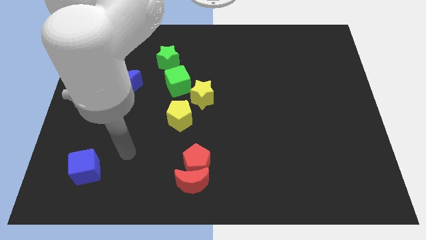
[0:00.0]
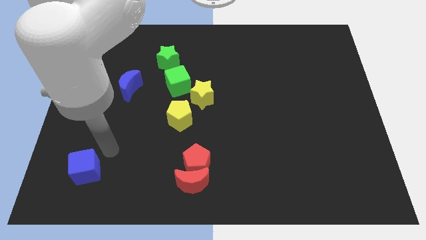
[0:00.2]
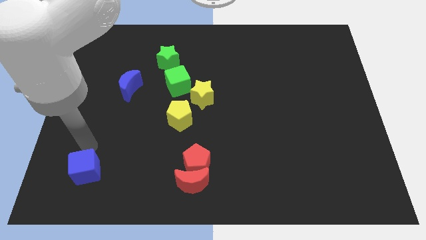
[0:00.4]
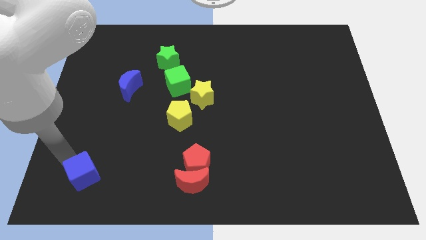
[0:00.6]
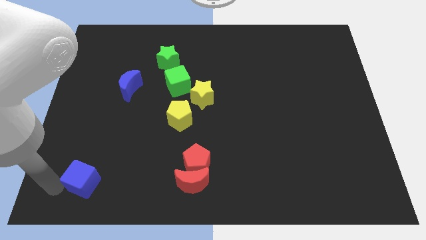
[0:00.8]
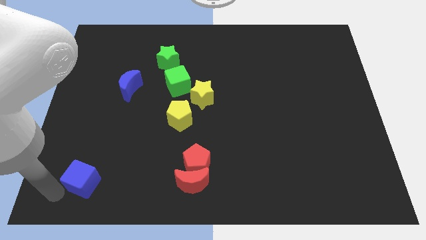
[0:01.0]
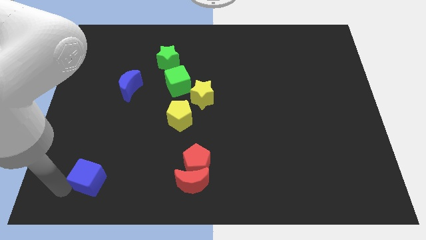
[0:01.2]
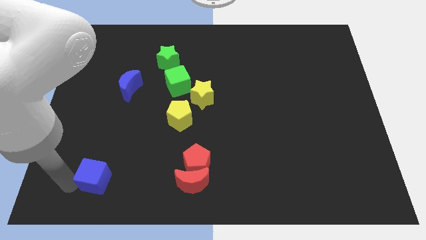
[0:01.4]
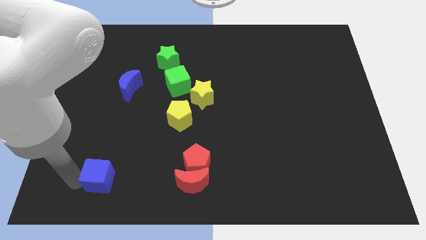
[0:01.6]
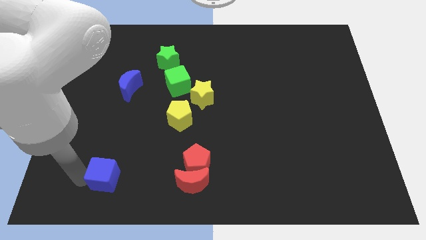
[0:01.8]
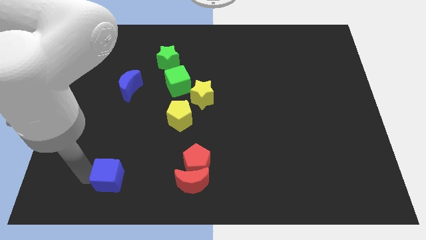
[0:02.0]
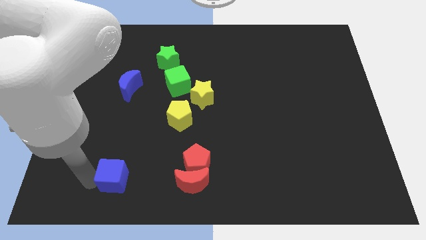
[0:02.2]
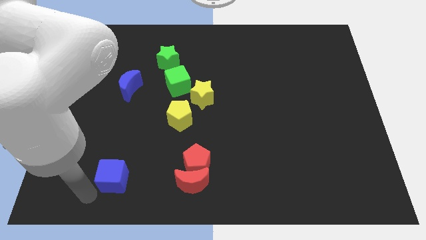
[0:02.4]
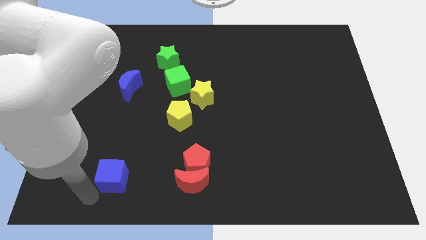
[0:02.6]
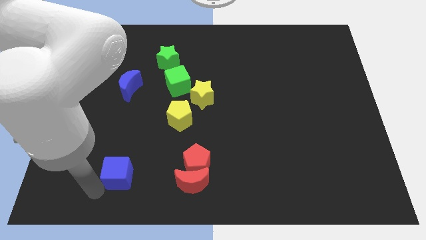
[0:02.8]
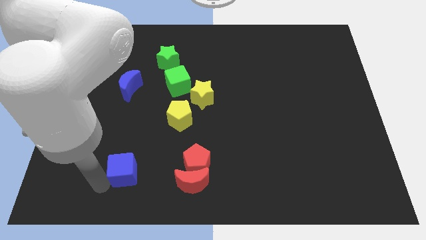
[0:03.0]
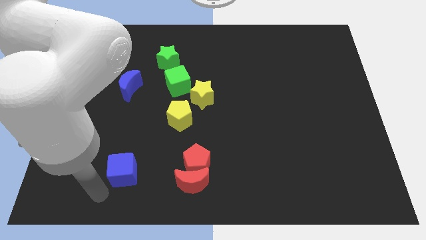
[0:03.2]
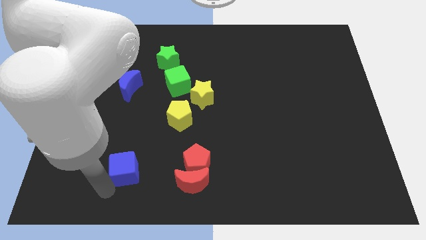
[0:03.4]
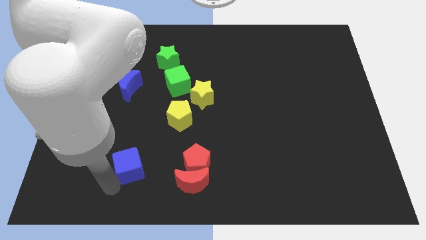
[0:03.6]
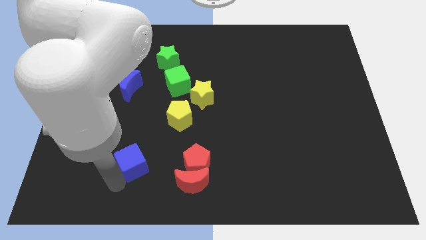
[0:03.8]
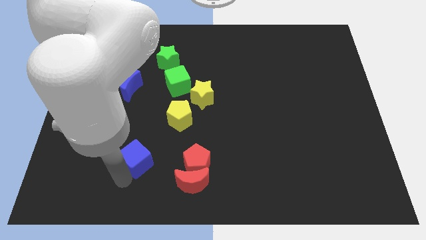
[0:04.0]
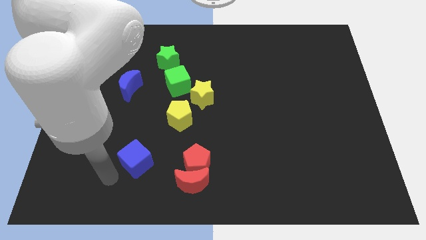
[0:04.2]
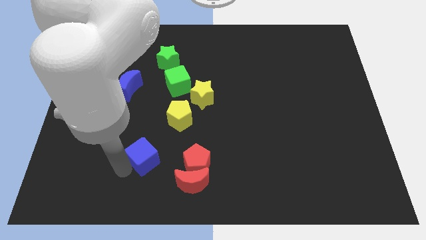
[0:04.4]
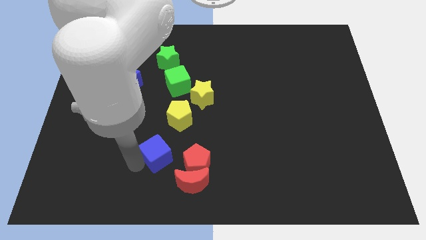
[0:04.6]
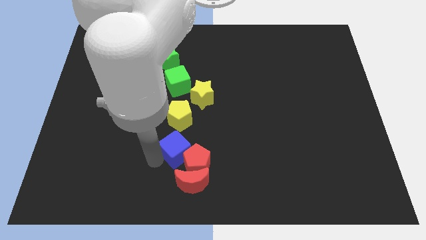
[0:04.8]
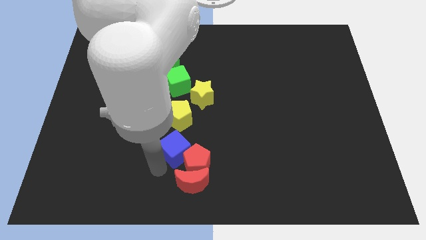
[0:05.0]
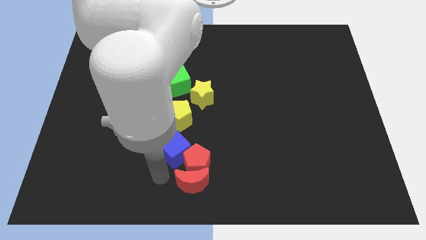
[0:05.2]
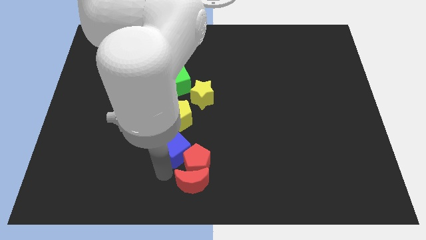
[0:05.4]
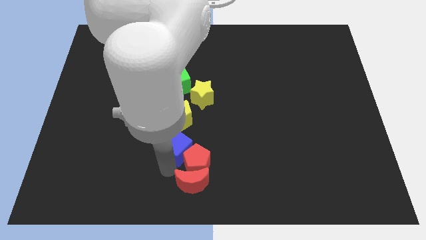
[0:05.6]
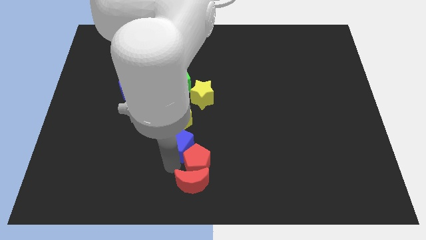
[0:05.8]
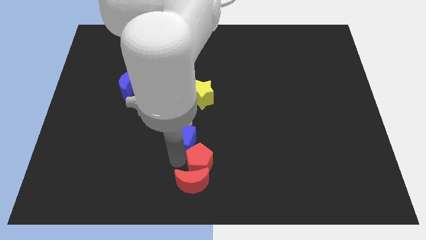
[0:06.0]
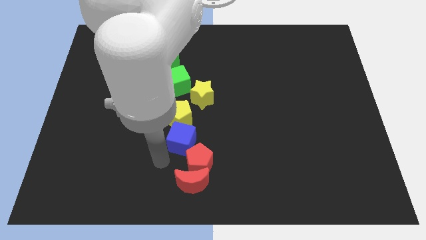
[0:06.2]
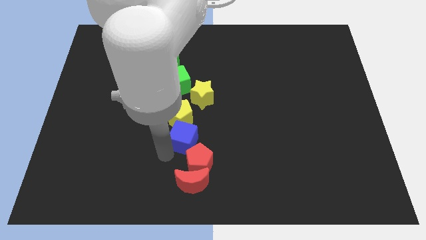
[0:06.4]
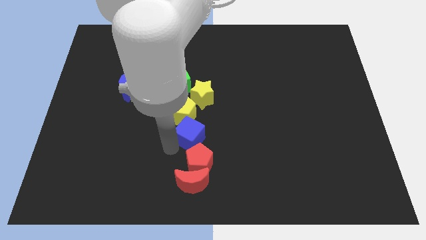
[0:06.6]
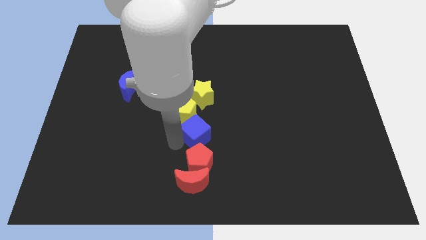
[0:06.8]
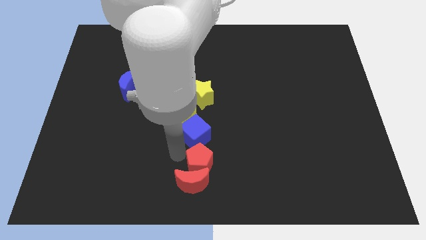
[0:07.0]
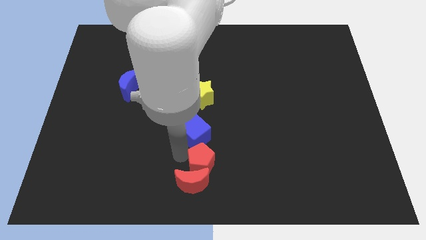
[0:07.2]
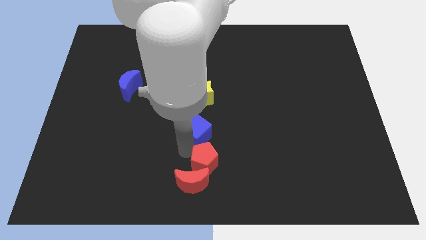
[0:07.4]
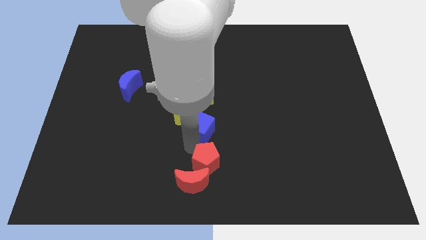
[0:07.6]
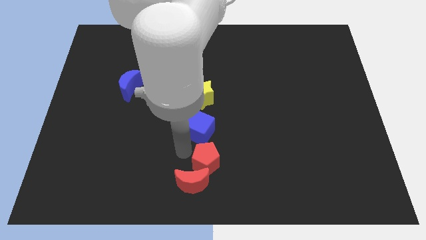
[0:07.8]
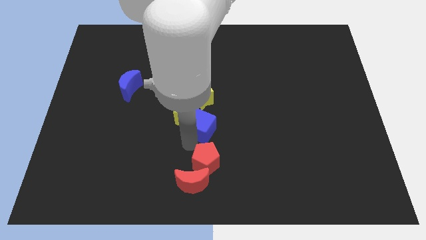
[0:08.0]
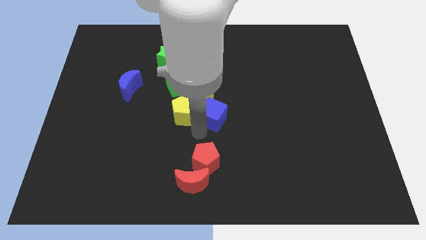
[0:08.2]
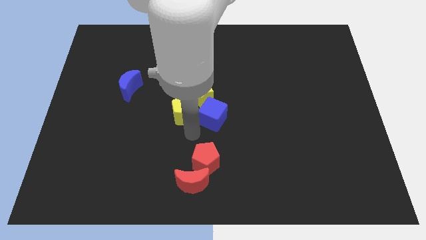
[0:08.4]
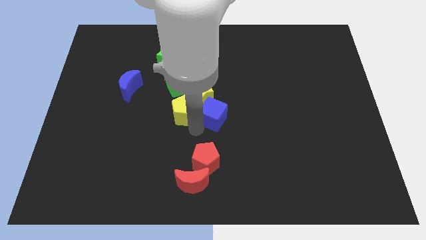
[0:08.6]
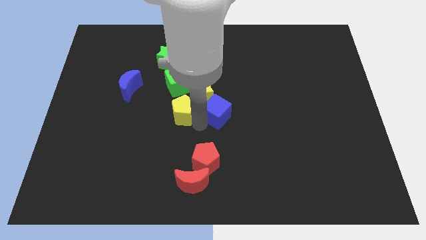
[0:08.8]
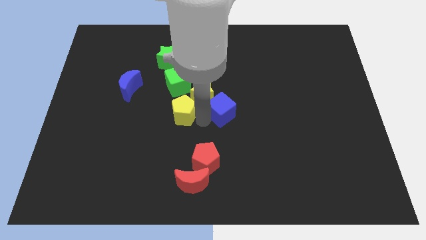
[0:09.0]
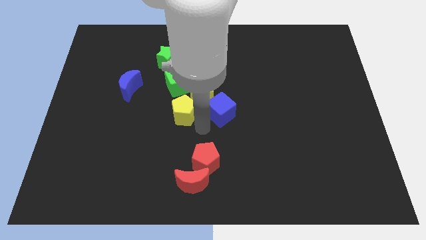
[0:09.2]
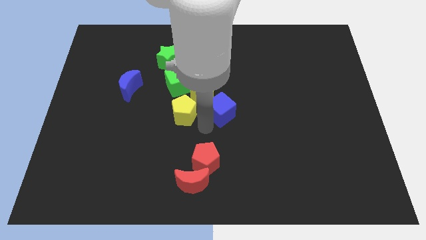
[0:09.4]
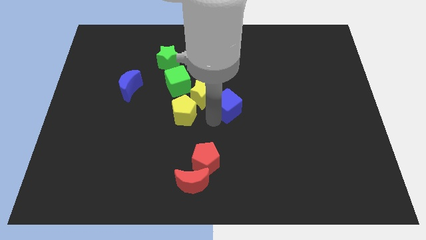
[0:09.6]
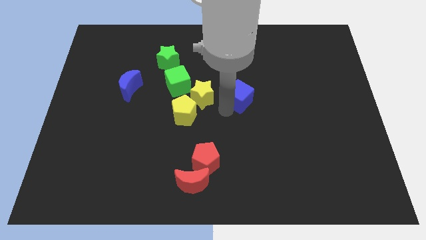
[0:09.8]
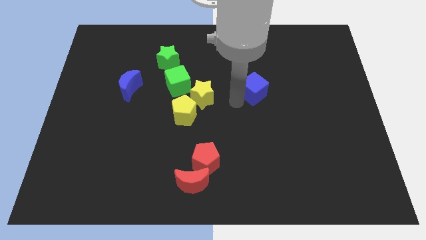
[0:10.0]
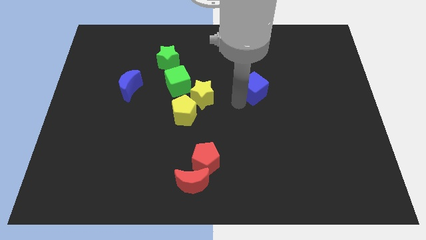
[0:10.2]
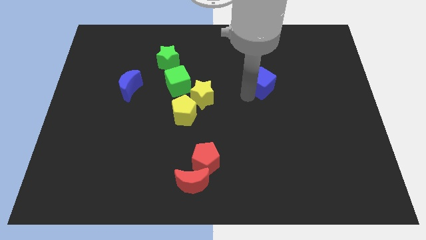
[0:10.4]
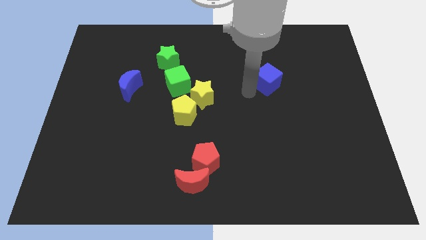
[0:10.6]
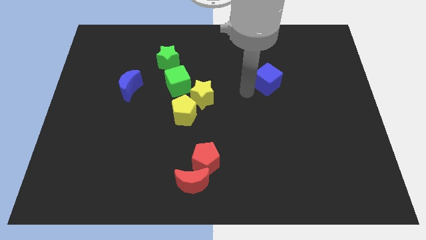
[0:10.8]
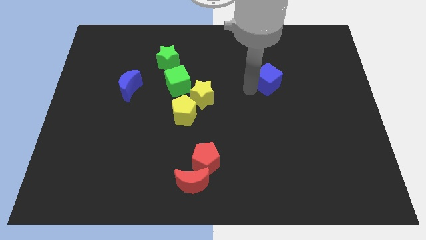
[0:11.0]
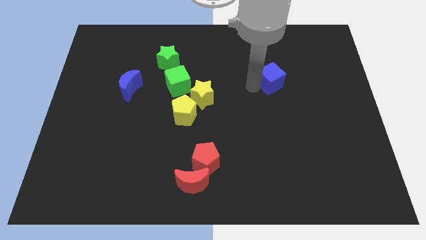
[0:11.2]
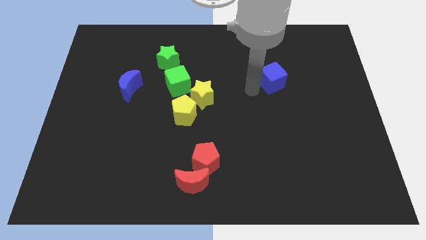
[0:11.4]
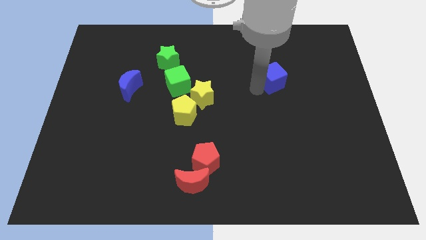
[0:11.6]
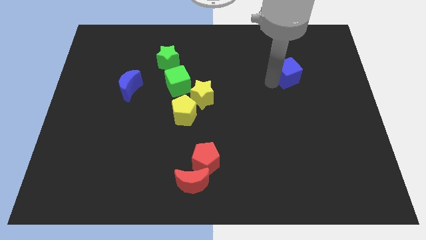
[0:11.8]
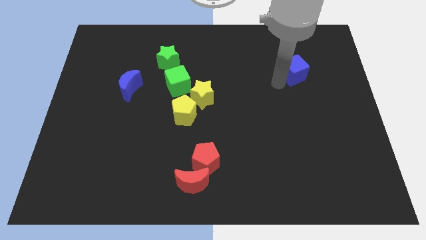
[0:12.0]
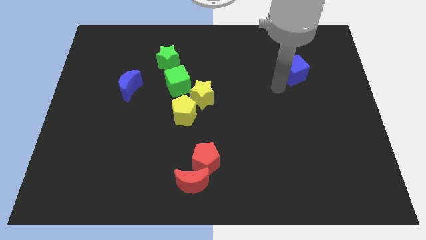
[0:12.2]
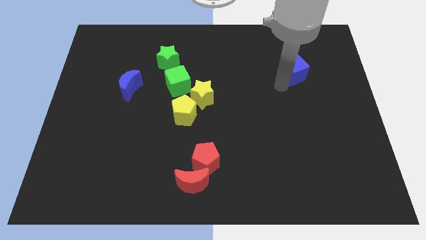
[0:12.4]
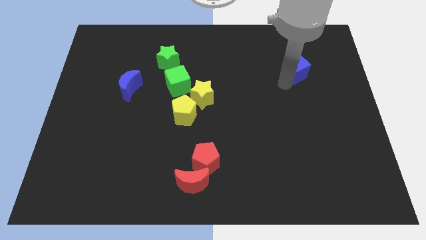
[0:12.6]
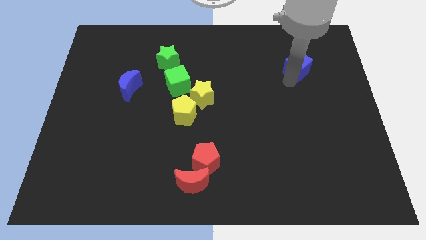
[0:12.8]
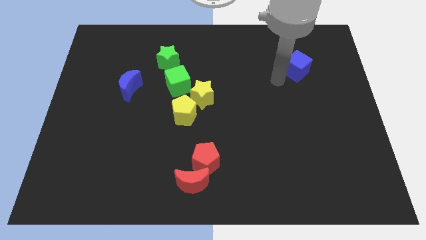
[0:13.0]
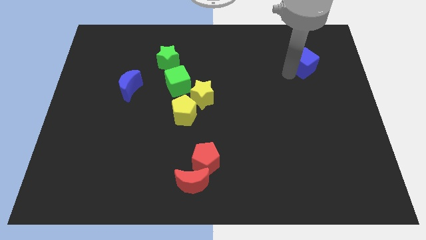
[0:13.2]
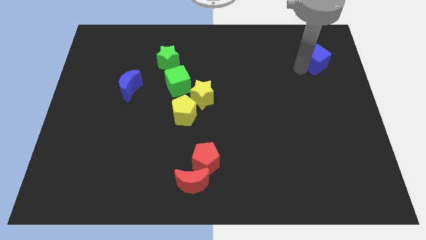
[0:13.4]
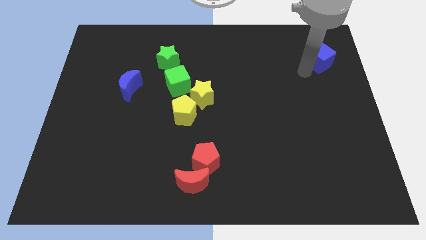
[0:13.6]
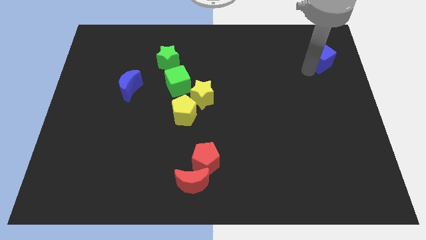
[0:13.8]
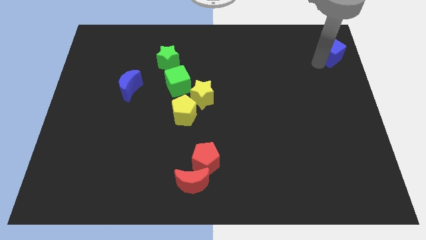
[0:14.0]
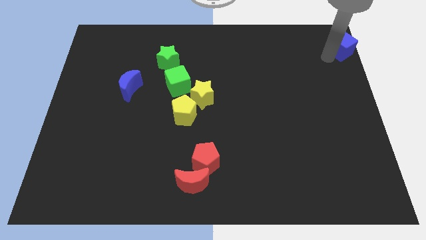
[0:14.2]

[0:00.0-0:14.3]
push the blue cube to the top right of the board

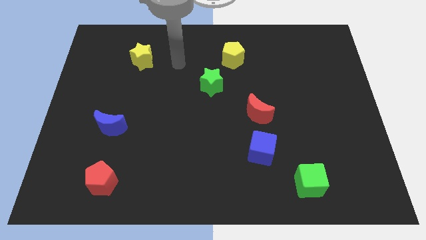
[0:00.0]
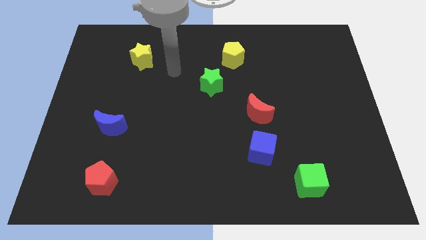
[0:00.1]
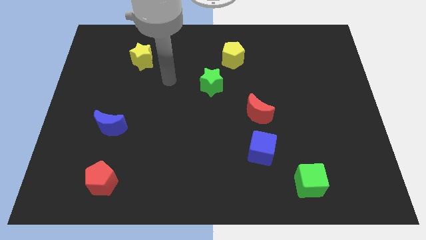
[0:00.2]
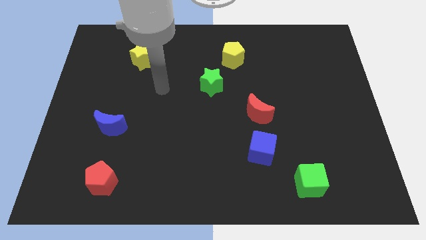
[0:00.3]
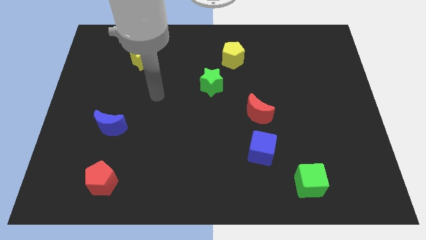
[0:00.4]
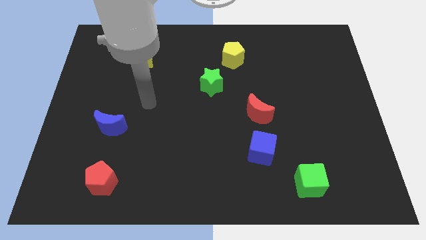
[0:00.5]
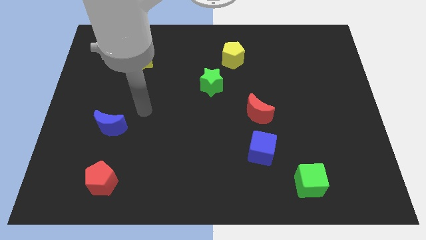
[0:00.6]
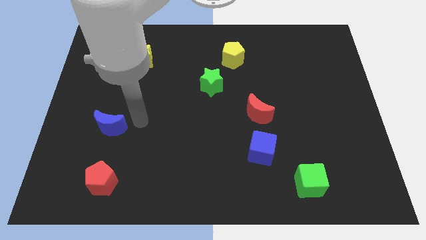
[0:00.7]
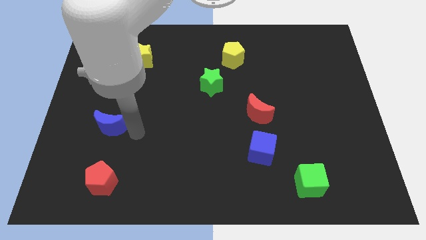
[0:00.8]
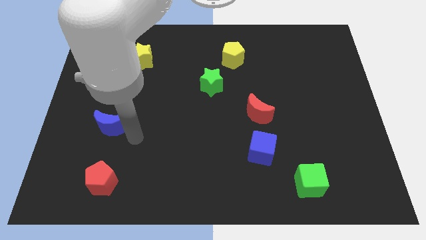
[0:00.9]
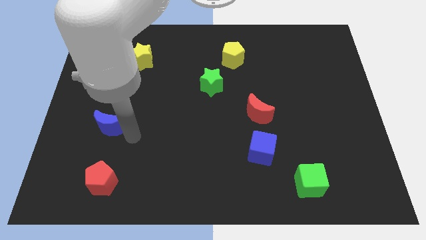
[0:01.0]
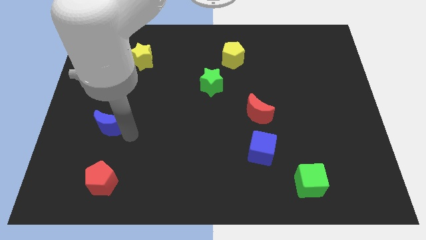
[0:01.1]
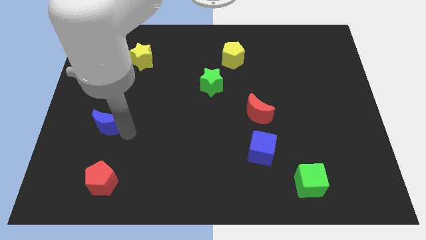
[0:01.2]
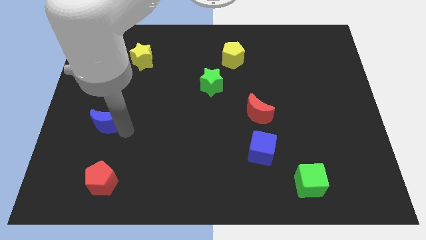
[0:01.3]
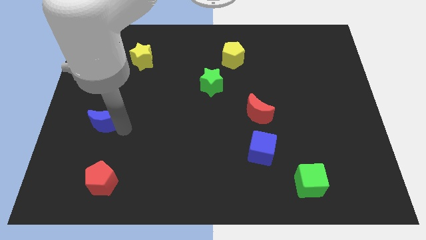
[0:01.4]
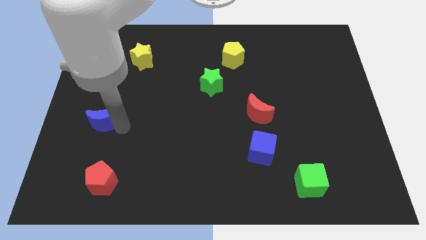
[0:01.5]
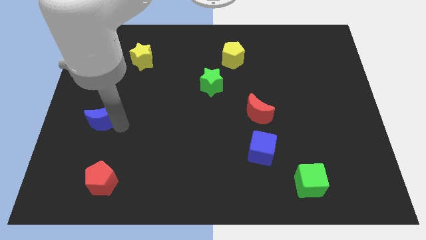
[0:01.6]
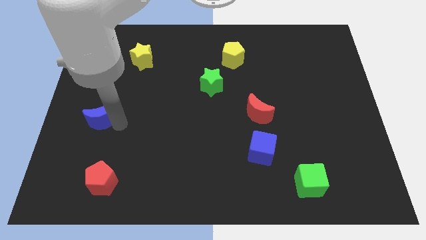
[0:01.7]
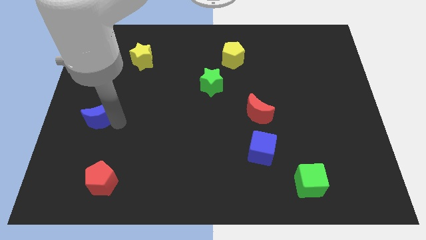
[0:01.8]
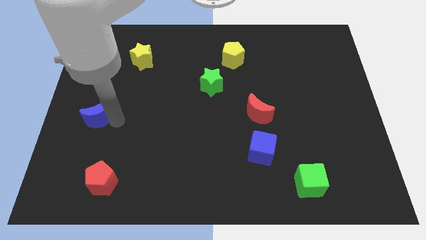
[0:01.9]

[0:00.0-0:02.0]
move the blue moon to the left side
